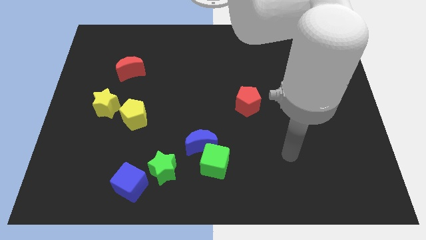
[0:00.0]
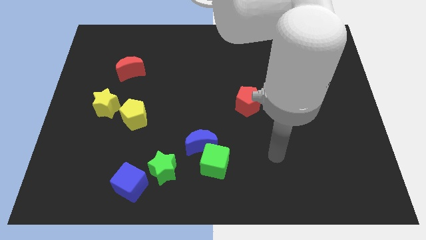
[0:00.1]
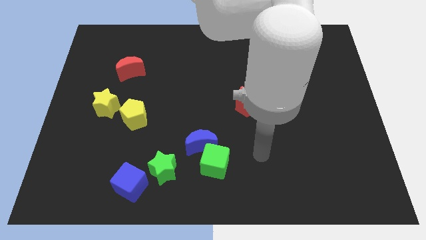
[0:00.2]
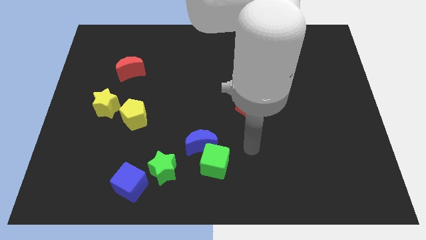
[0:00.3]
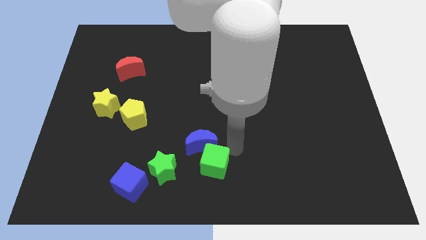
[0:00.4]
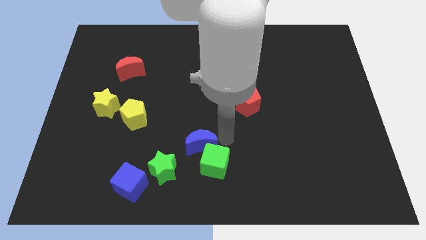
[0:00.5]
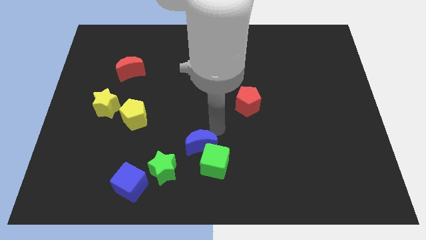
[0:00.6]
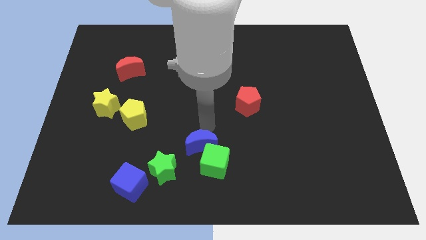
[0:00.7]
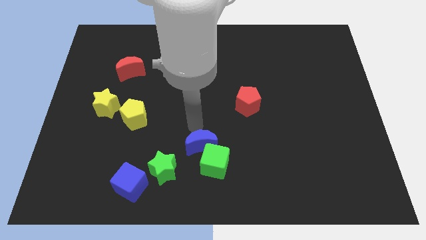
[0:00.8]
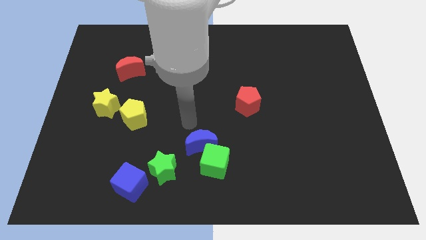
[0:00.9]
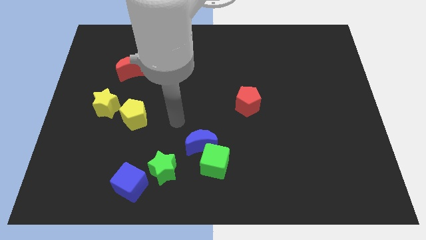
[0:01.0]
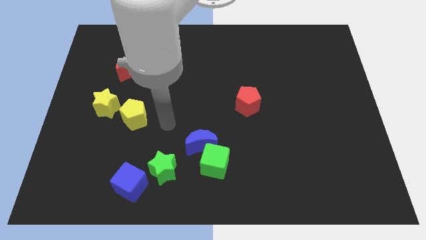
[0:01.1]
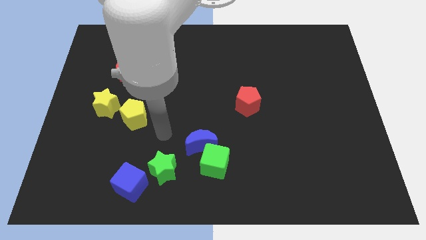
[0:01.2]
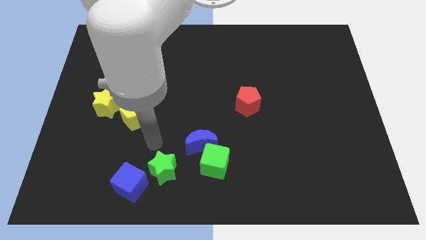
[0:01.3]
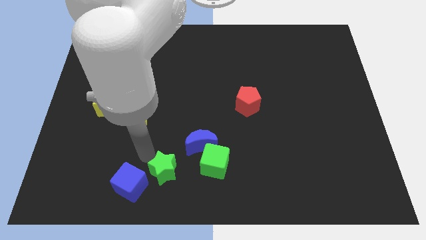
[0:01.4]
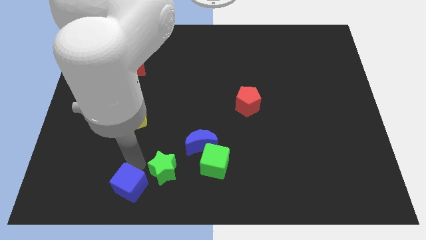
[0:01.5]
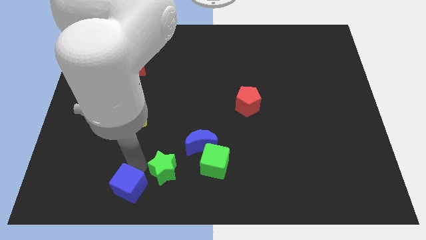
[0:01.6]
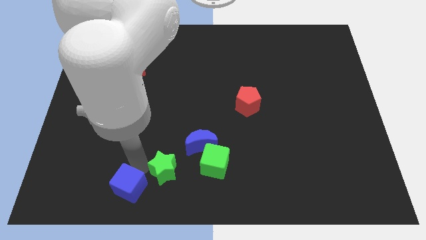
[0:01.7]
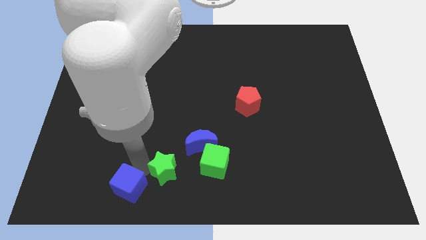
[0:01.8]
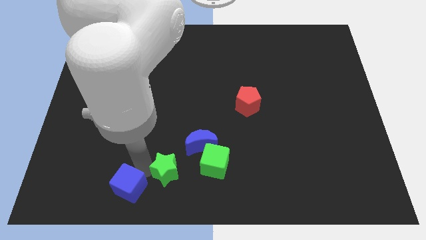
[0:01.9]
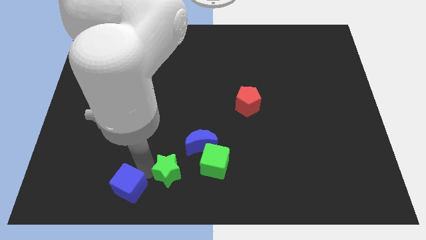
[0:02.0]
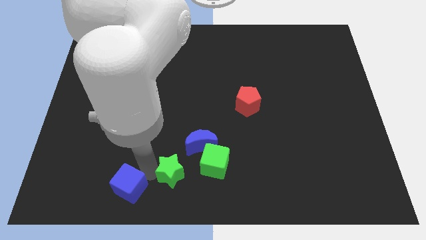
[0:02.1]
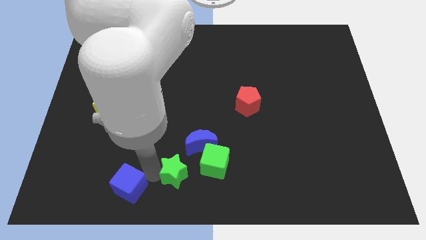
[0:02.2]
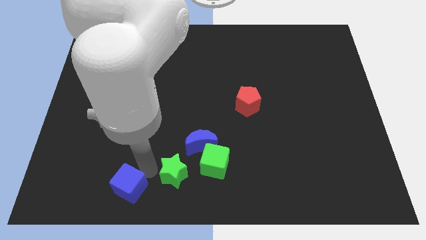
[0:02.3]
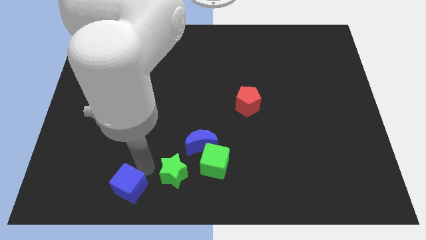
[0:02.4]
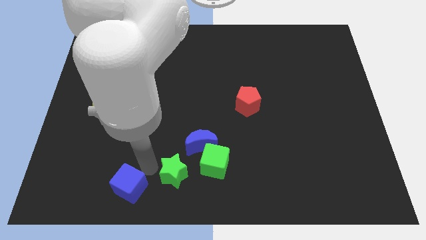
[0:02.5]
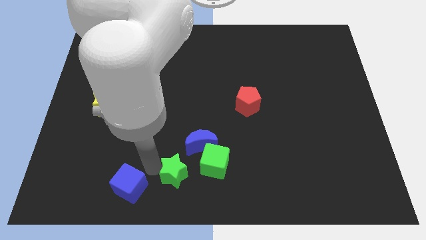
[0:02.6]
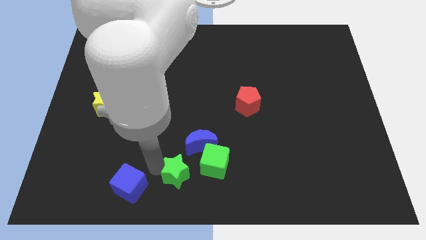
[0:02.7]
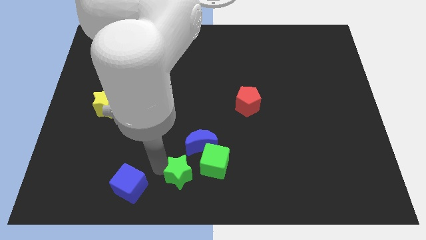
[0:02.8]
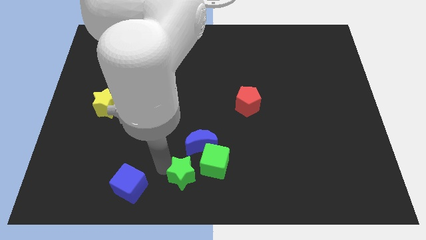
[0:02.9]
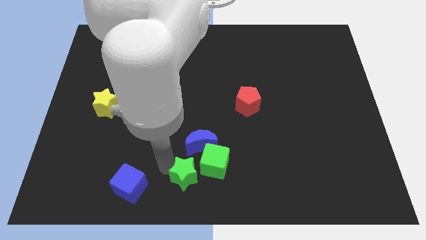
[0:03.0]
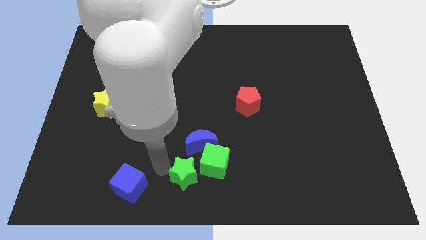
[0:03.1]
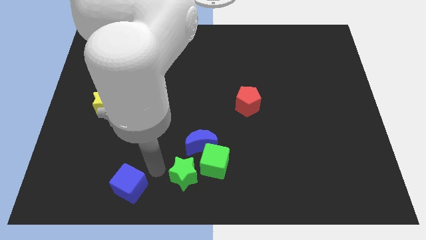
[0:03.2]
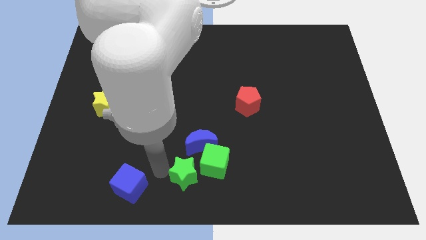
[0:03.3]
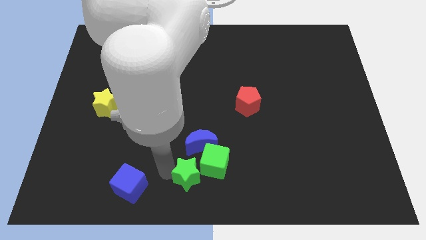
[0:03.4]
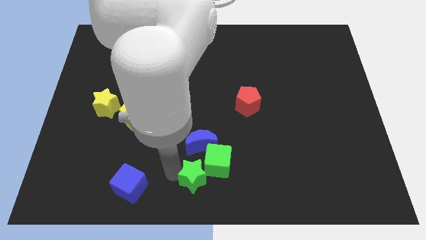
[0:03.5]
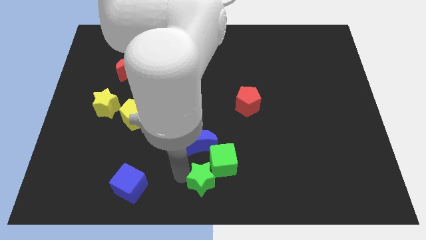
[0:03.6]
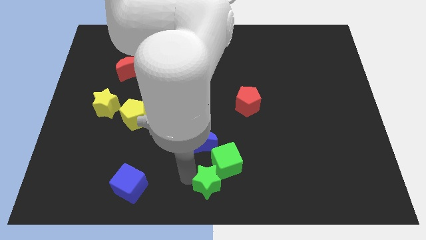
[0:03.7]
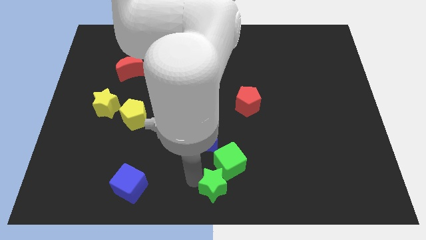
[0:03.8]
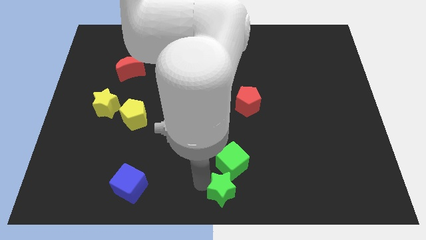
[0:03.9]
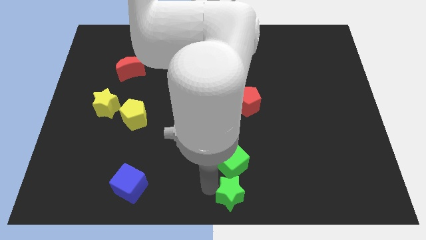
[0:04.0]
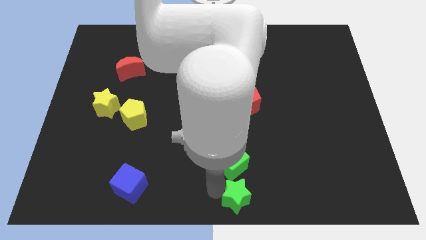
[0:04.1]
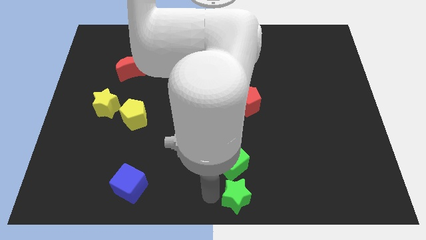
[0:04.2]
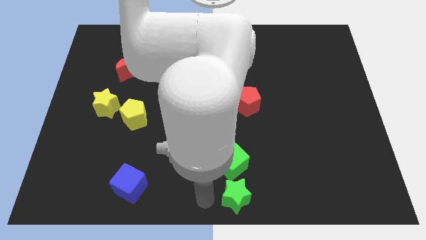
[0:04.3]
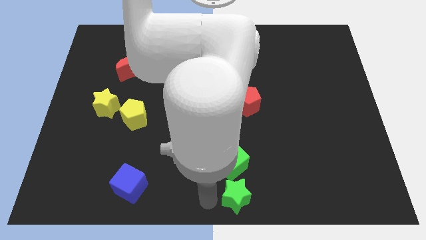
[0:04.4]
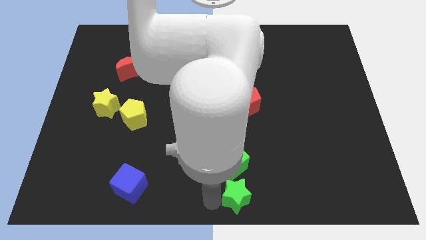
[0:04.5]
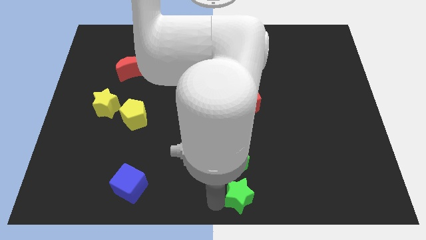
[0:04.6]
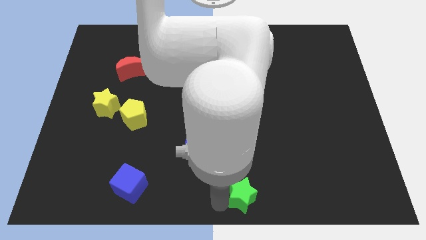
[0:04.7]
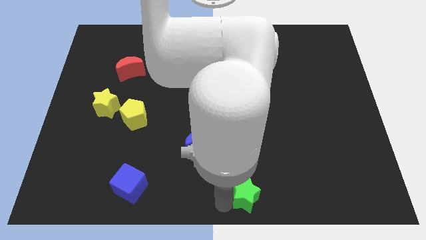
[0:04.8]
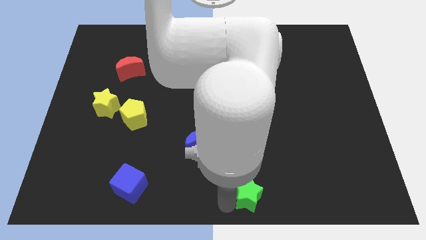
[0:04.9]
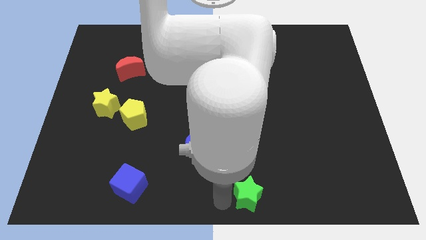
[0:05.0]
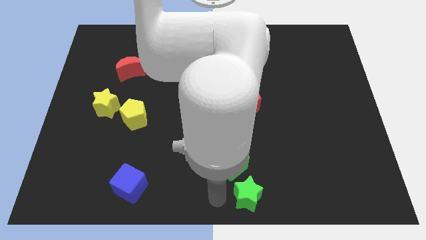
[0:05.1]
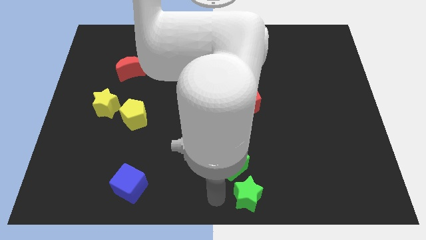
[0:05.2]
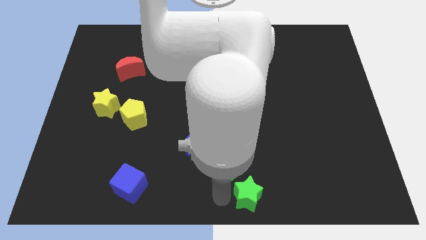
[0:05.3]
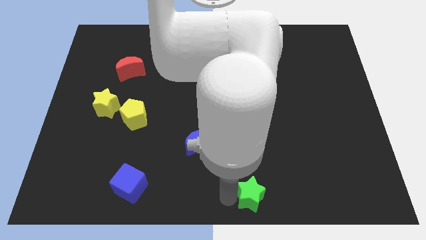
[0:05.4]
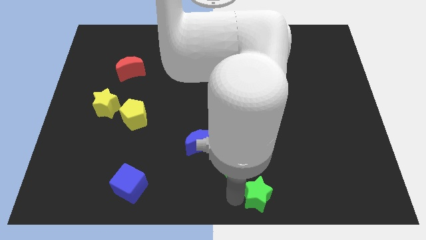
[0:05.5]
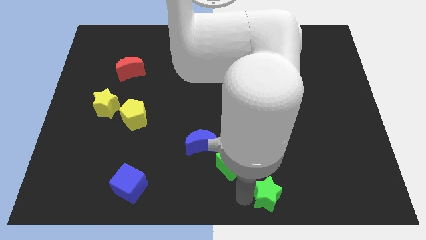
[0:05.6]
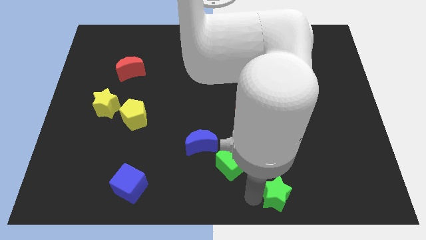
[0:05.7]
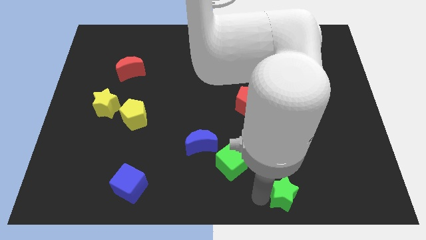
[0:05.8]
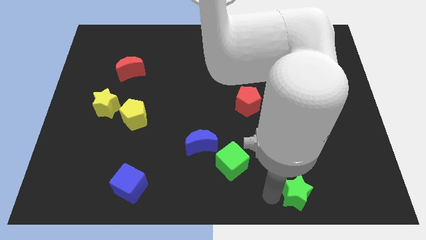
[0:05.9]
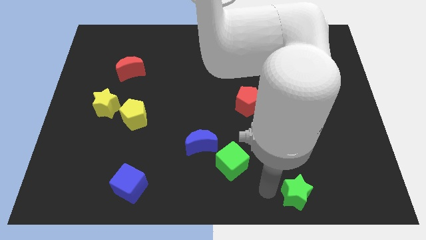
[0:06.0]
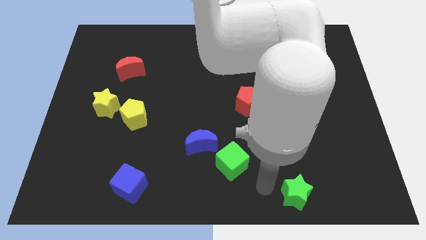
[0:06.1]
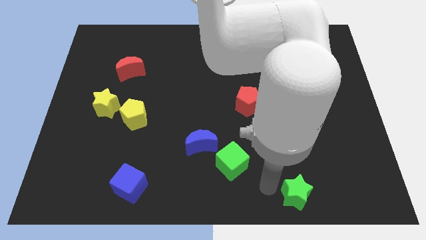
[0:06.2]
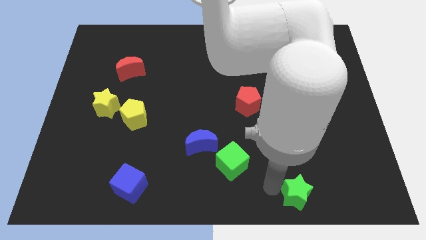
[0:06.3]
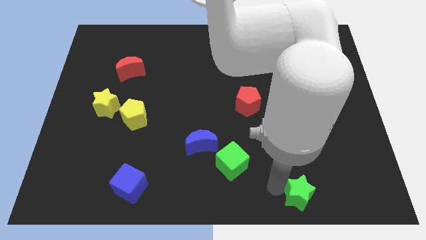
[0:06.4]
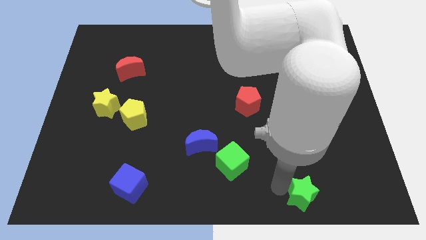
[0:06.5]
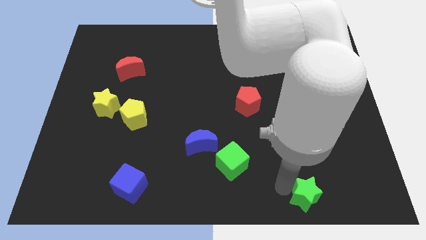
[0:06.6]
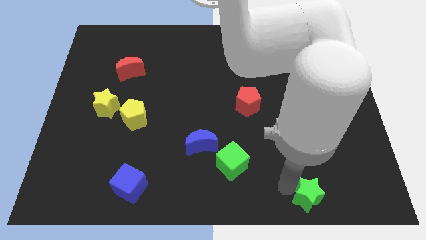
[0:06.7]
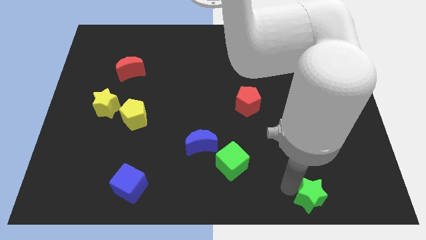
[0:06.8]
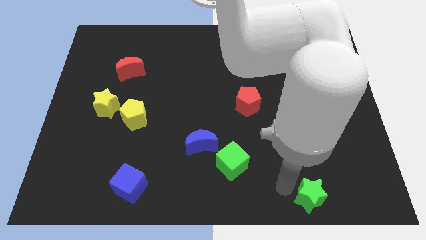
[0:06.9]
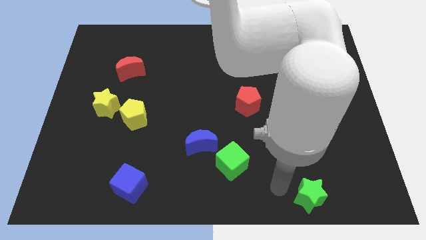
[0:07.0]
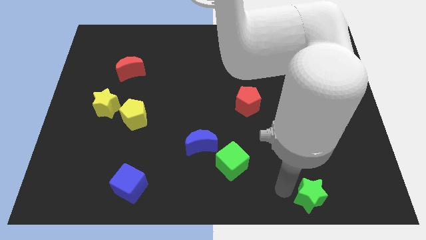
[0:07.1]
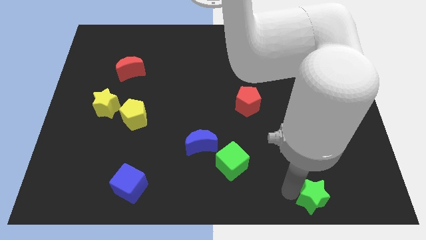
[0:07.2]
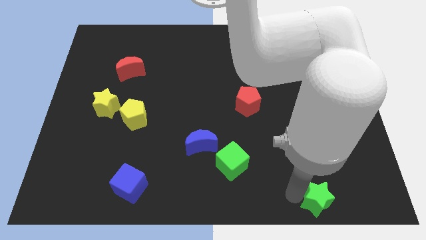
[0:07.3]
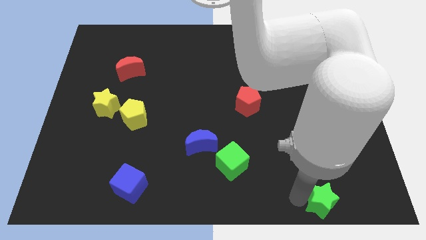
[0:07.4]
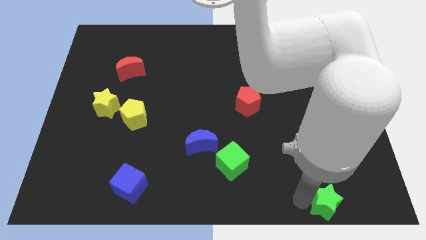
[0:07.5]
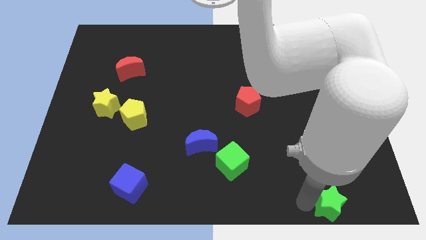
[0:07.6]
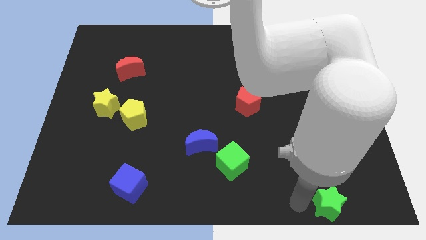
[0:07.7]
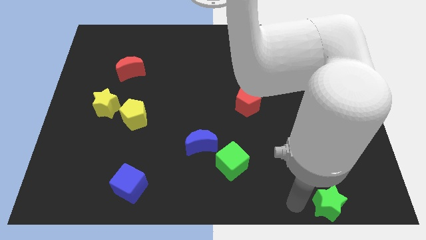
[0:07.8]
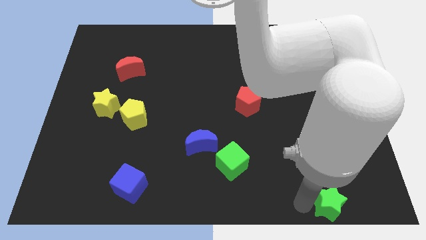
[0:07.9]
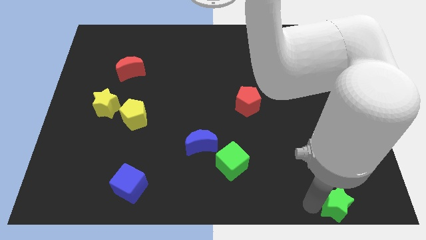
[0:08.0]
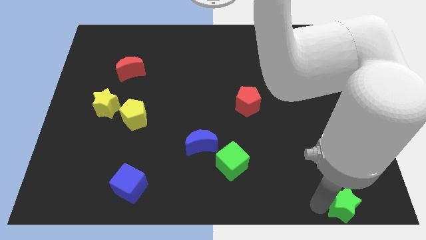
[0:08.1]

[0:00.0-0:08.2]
push the green star to the bottom right corner
